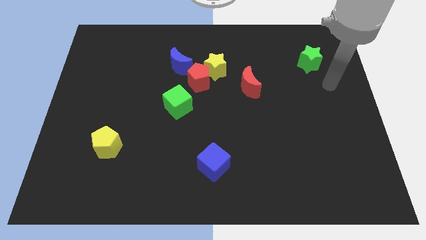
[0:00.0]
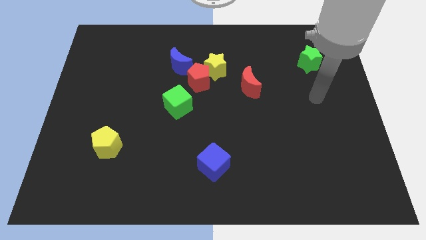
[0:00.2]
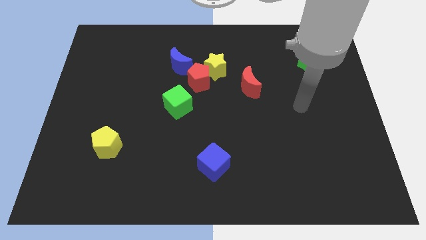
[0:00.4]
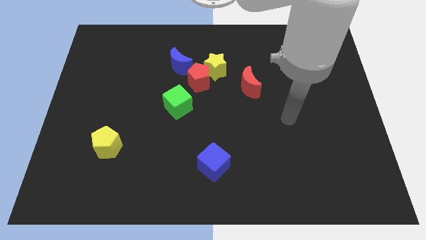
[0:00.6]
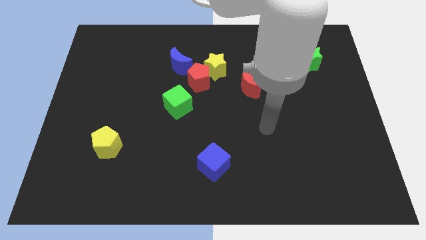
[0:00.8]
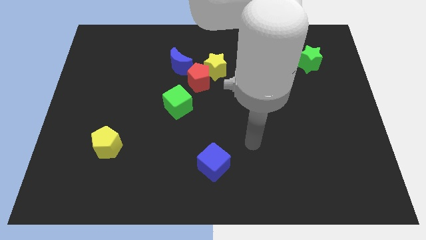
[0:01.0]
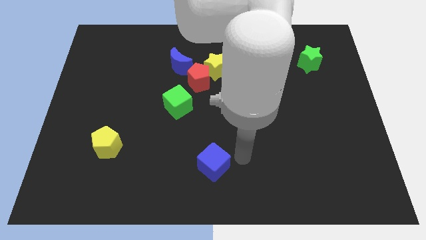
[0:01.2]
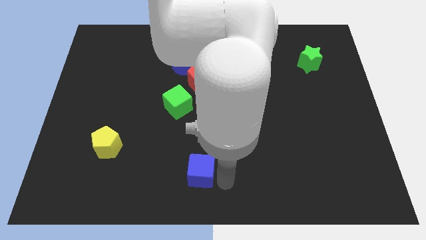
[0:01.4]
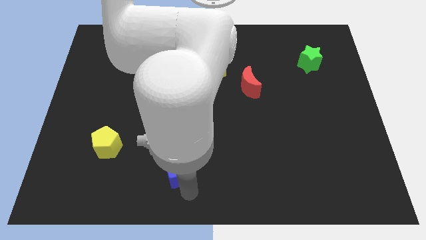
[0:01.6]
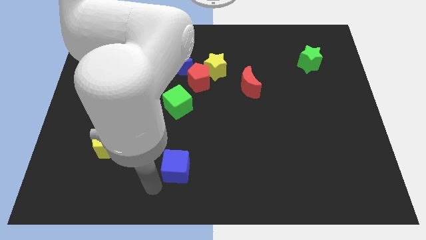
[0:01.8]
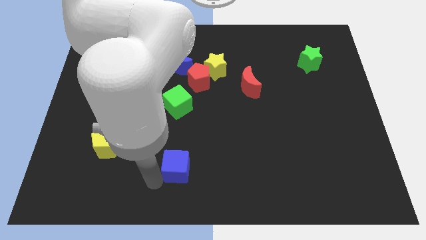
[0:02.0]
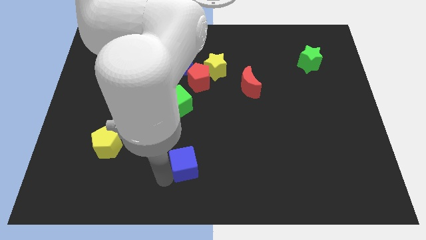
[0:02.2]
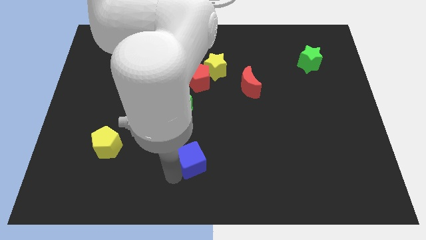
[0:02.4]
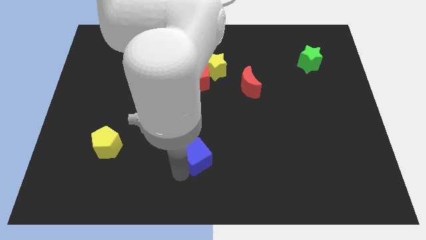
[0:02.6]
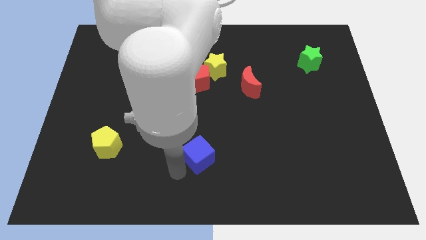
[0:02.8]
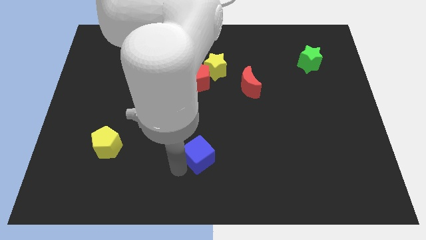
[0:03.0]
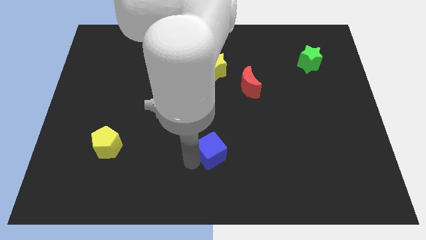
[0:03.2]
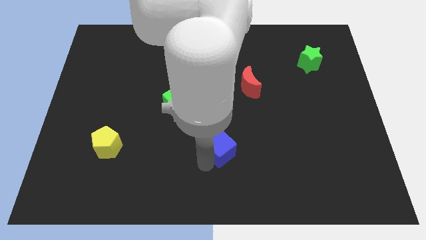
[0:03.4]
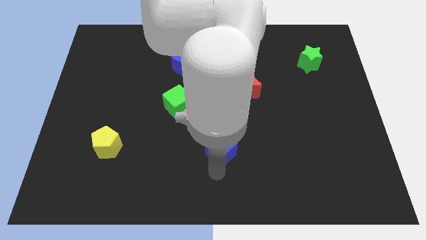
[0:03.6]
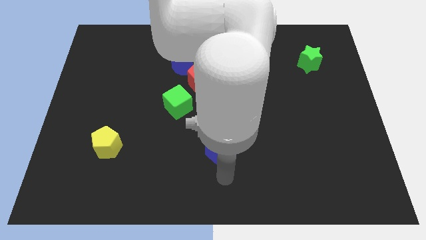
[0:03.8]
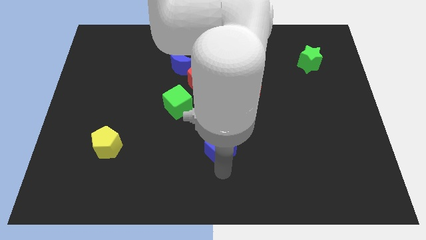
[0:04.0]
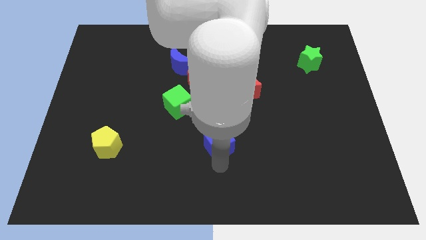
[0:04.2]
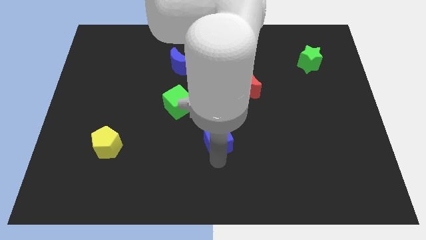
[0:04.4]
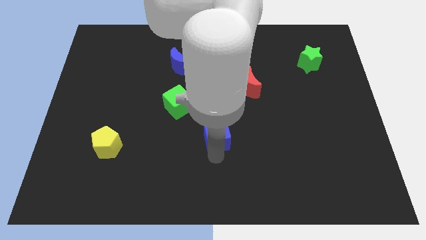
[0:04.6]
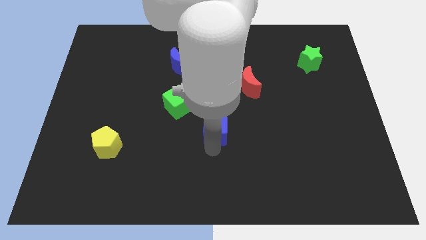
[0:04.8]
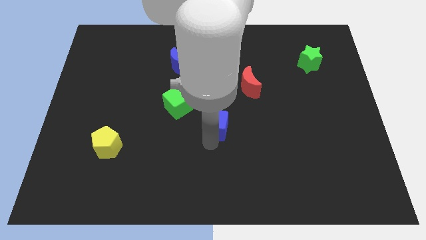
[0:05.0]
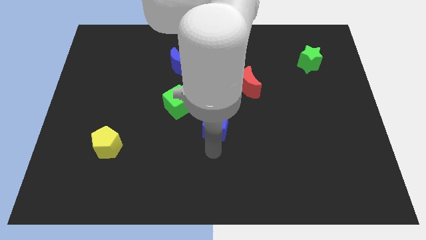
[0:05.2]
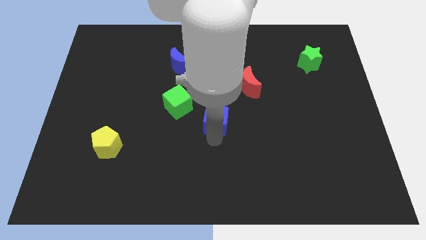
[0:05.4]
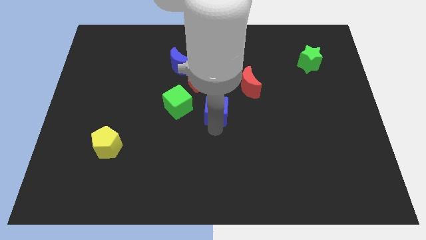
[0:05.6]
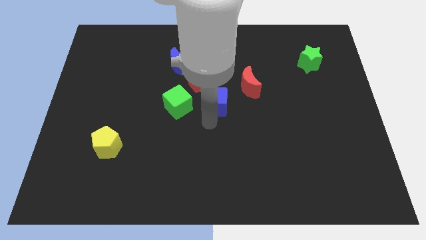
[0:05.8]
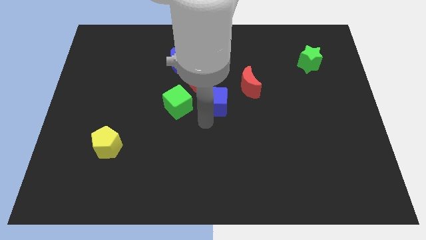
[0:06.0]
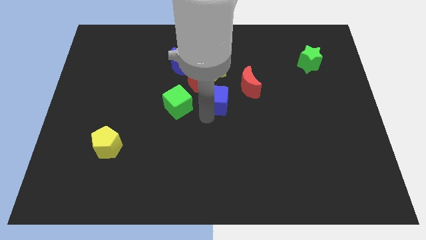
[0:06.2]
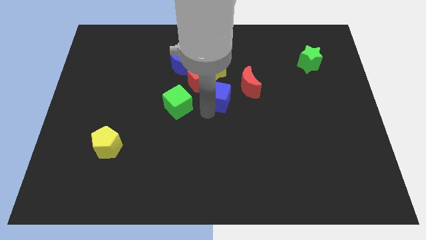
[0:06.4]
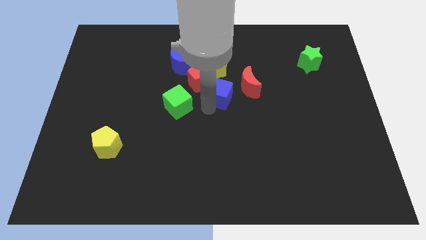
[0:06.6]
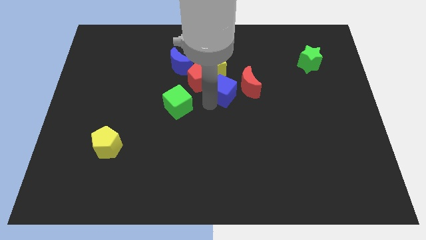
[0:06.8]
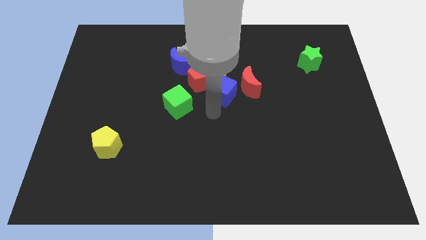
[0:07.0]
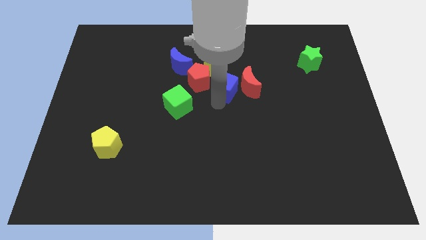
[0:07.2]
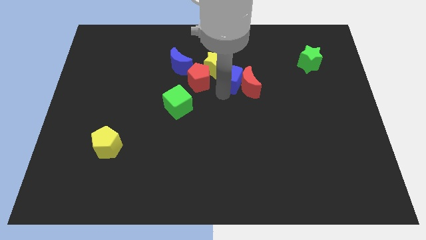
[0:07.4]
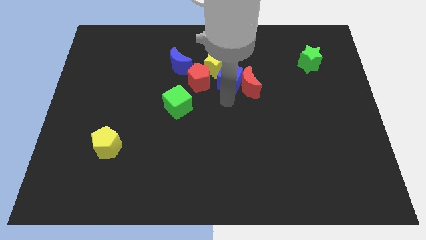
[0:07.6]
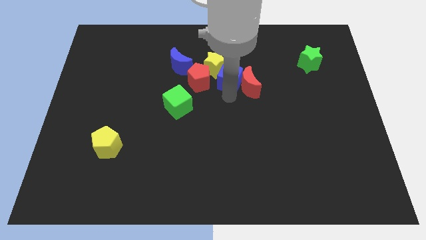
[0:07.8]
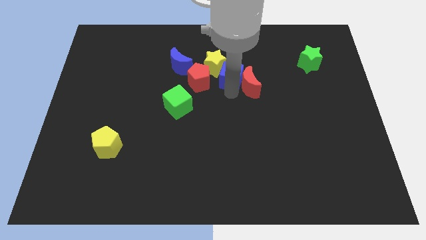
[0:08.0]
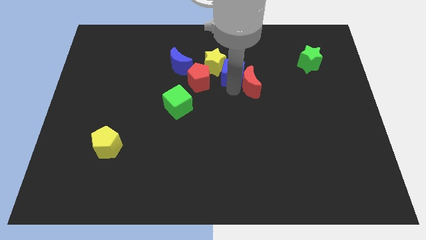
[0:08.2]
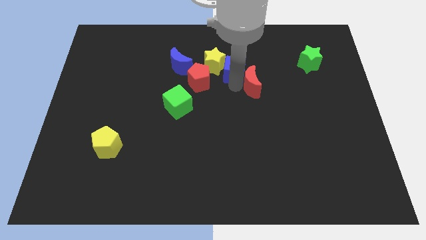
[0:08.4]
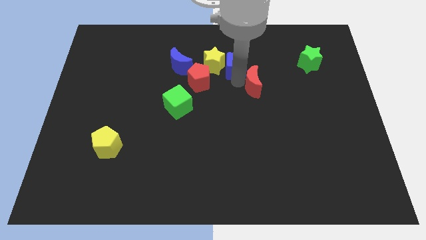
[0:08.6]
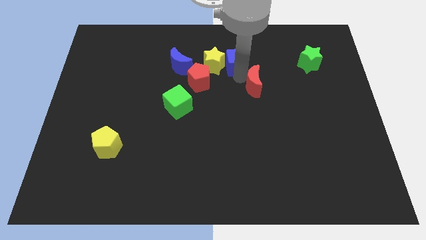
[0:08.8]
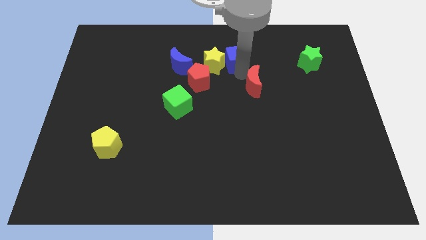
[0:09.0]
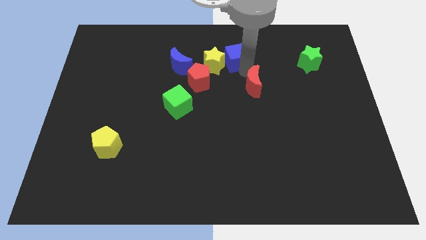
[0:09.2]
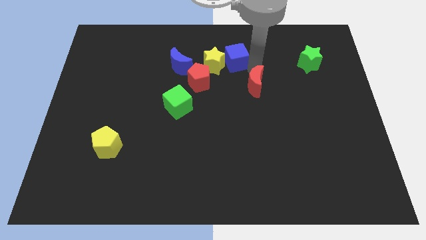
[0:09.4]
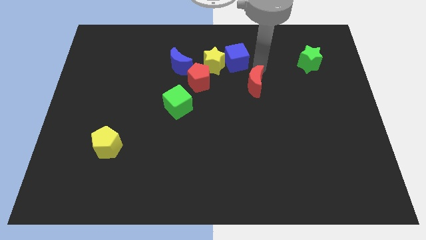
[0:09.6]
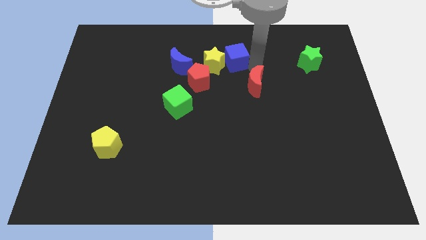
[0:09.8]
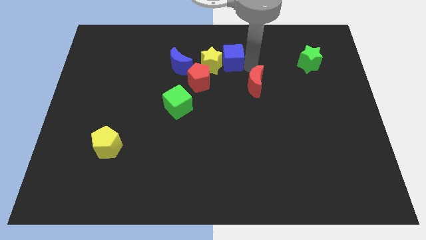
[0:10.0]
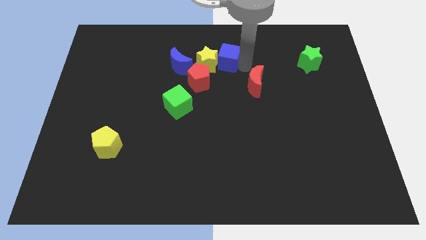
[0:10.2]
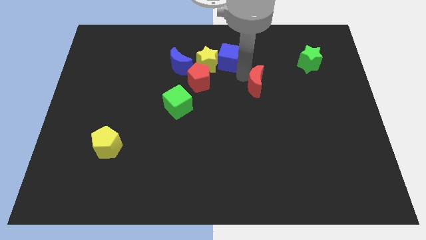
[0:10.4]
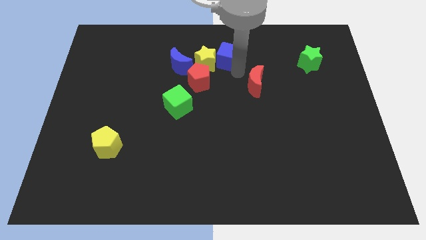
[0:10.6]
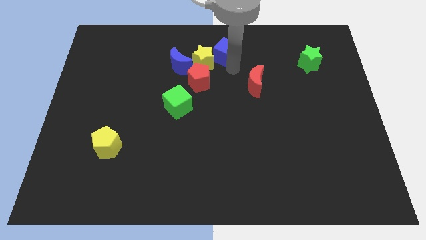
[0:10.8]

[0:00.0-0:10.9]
push the blue cube to the towards your base

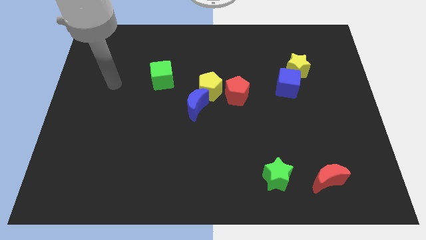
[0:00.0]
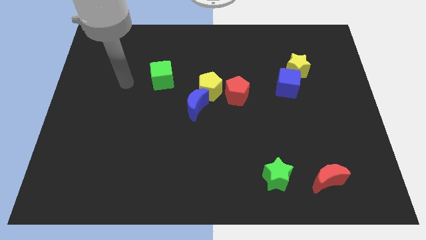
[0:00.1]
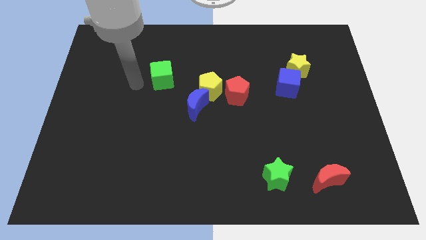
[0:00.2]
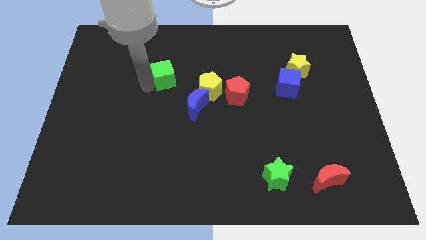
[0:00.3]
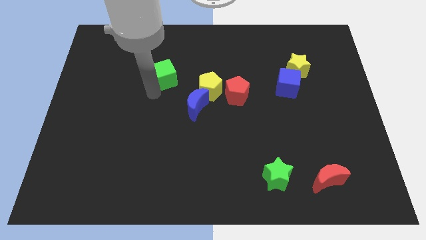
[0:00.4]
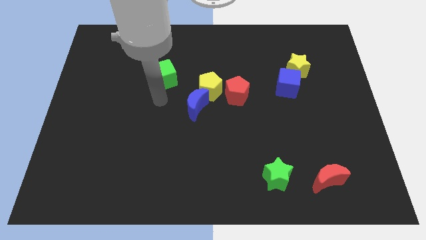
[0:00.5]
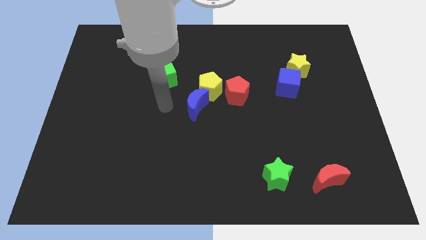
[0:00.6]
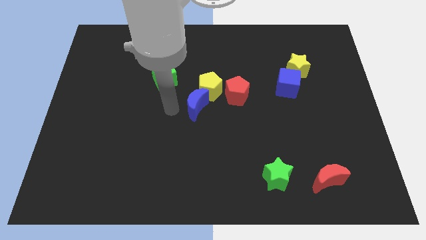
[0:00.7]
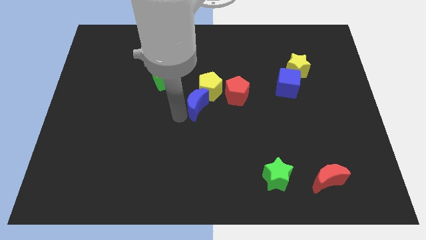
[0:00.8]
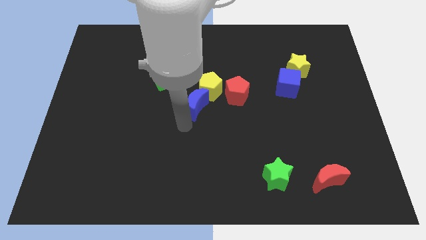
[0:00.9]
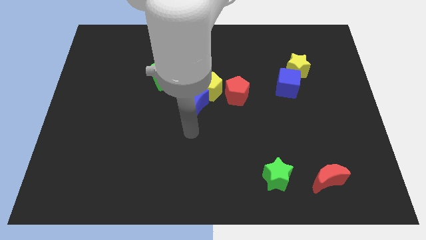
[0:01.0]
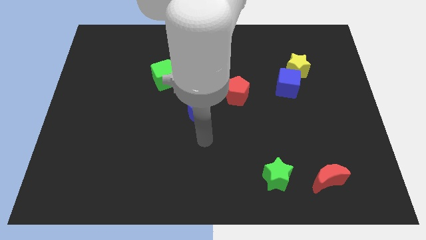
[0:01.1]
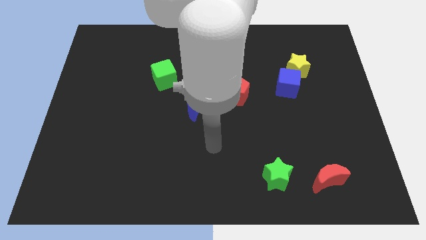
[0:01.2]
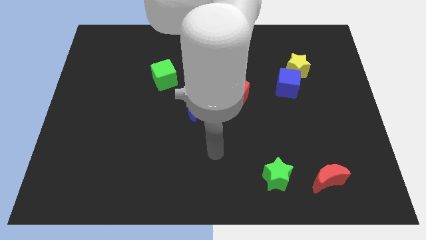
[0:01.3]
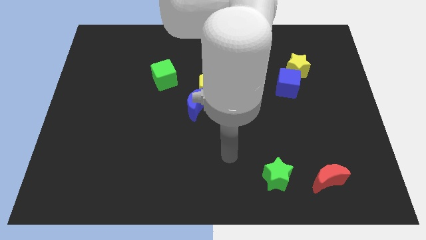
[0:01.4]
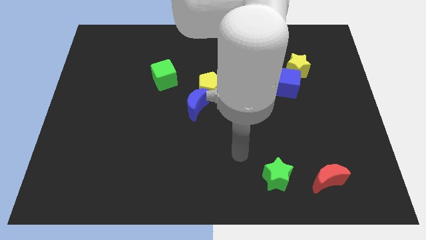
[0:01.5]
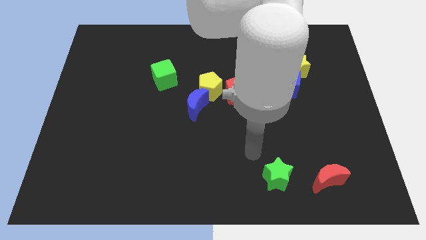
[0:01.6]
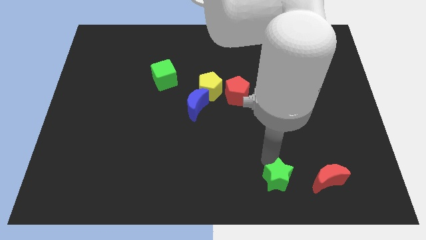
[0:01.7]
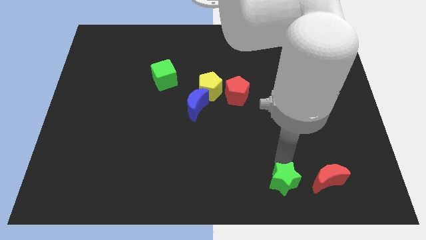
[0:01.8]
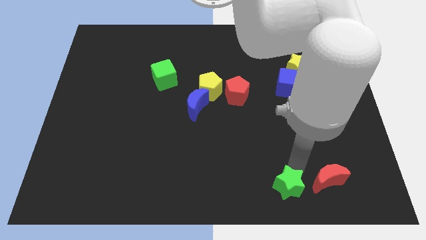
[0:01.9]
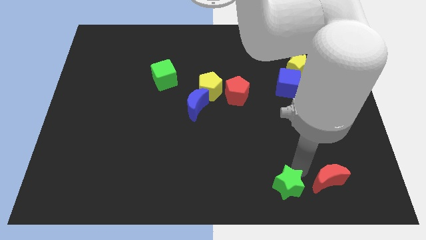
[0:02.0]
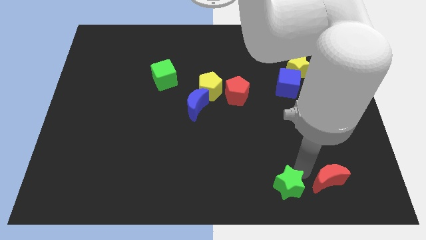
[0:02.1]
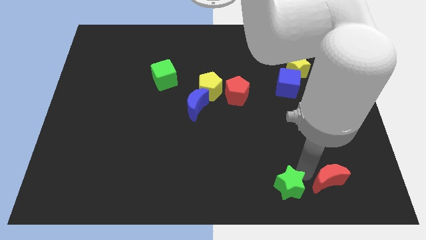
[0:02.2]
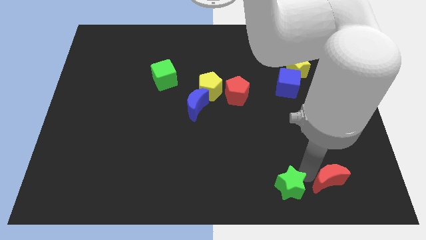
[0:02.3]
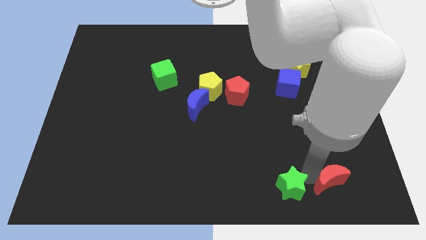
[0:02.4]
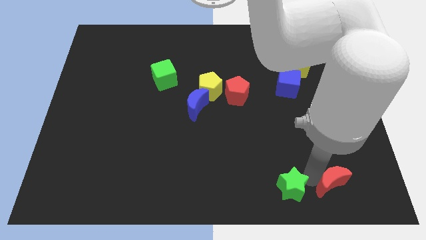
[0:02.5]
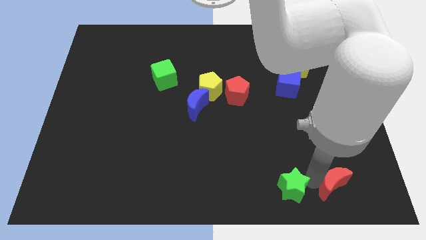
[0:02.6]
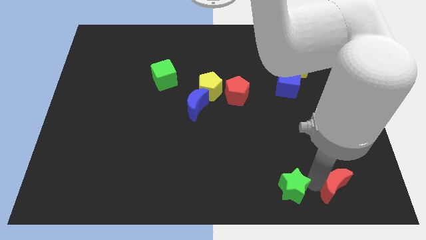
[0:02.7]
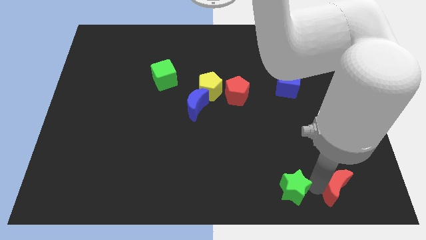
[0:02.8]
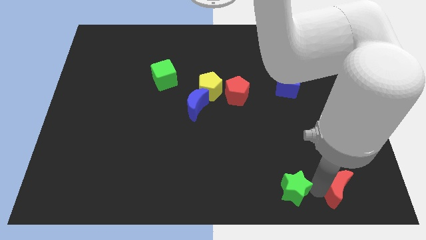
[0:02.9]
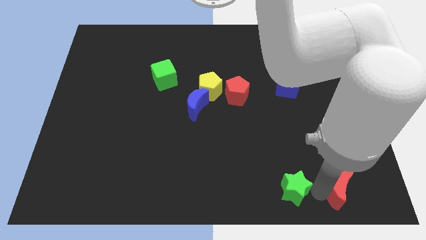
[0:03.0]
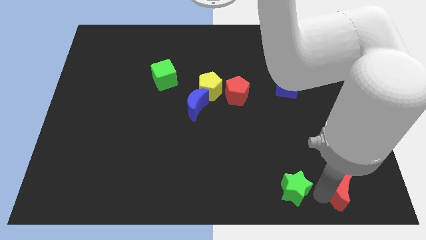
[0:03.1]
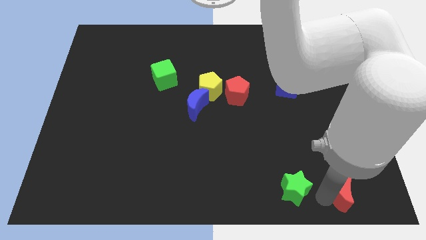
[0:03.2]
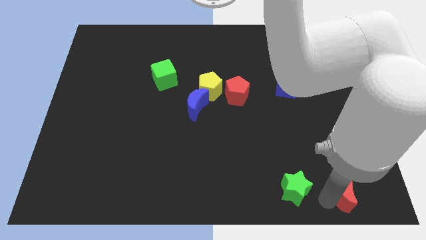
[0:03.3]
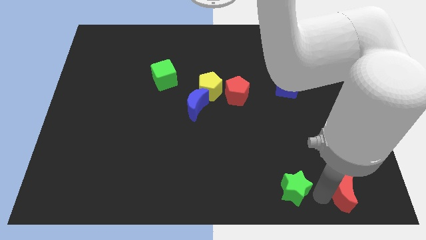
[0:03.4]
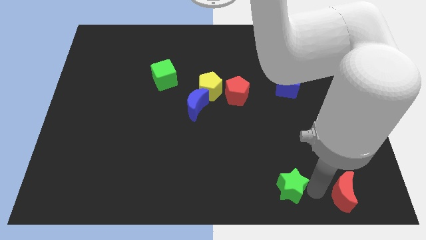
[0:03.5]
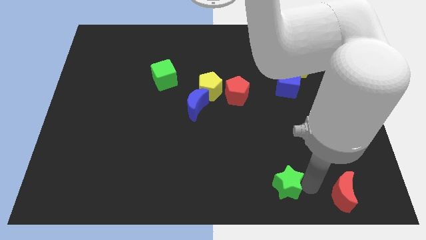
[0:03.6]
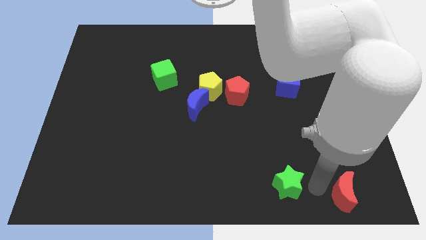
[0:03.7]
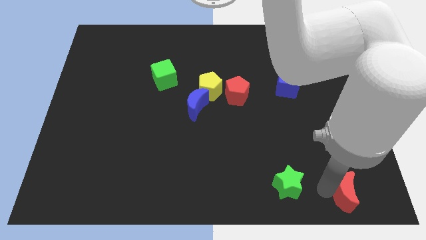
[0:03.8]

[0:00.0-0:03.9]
slide the red moon to the bottom right of the board
